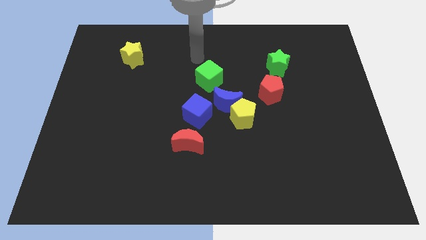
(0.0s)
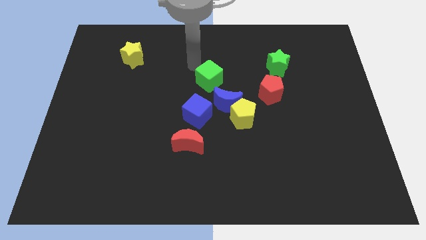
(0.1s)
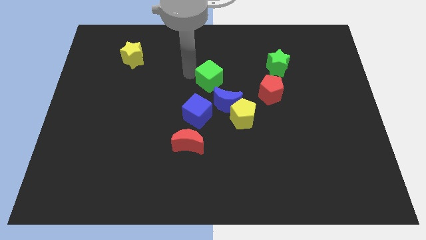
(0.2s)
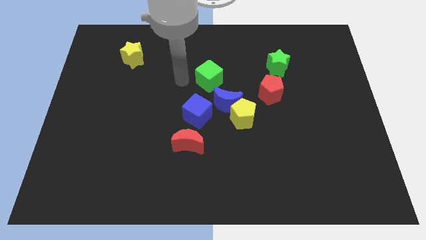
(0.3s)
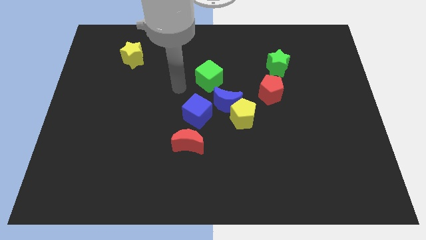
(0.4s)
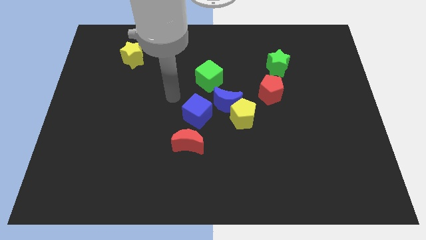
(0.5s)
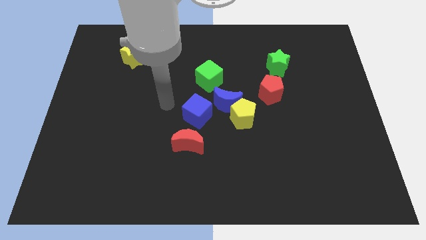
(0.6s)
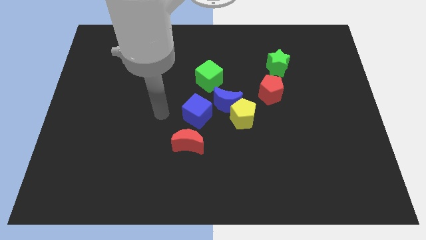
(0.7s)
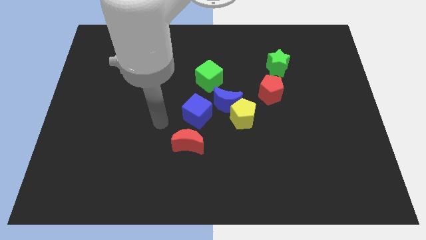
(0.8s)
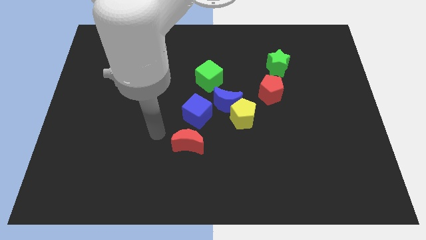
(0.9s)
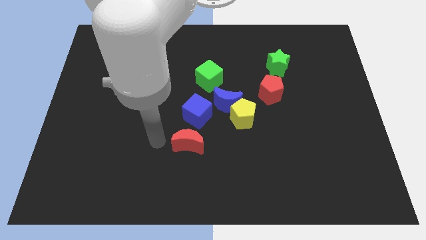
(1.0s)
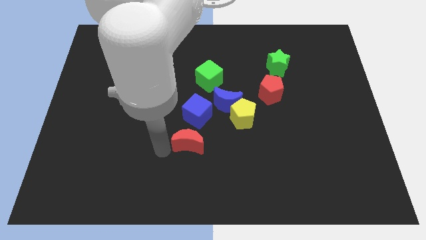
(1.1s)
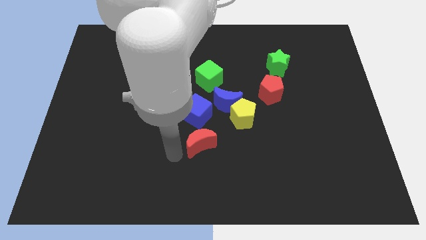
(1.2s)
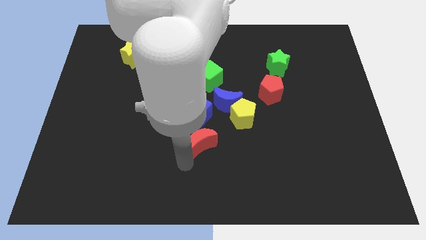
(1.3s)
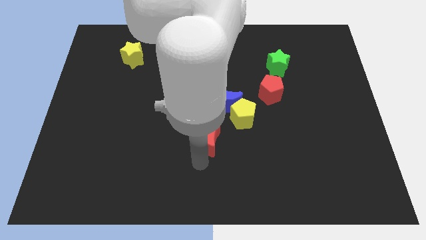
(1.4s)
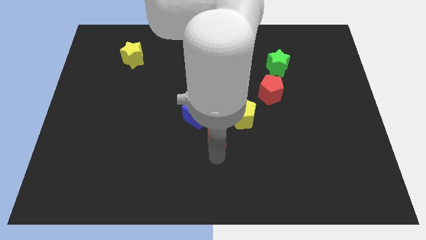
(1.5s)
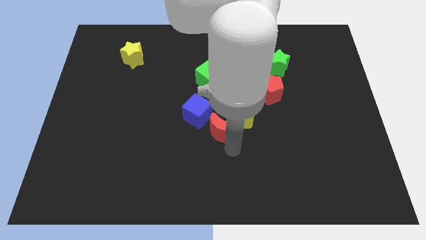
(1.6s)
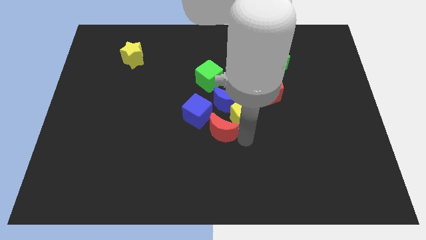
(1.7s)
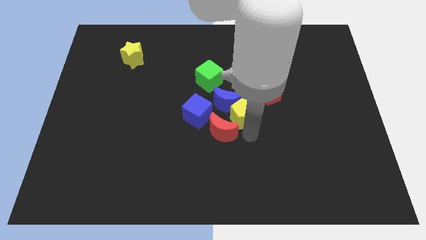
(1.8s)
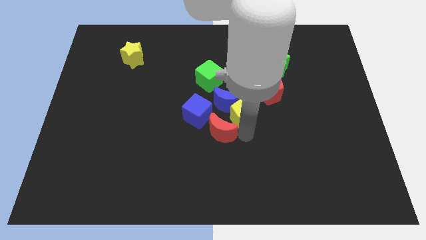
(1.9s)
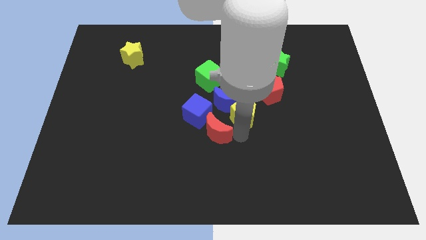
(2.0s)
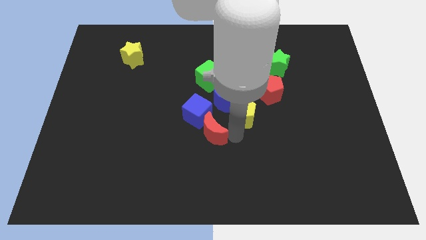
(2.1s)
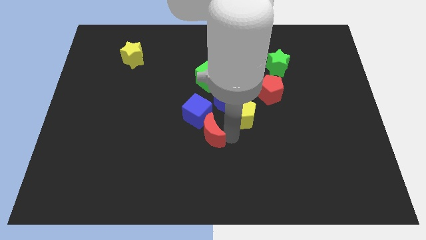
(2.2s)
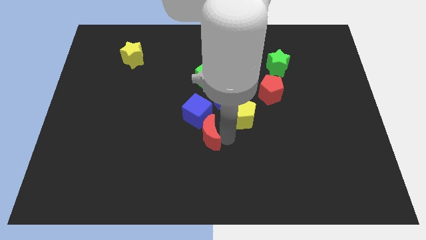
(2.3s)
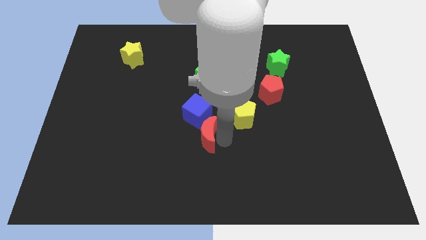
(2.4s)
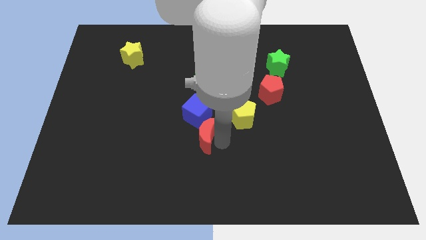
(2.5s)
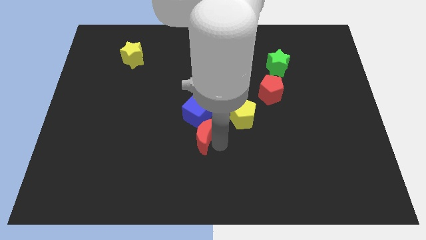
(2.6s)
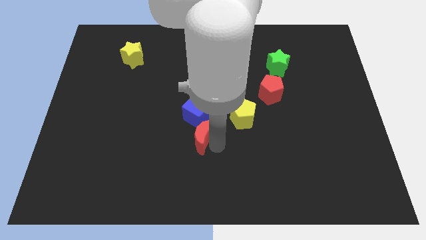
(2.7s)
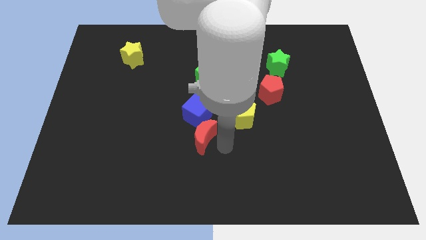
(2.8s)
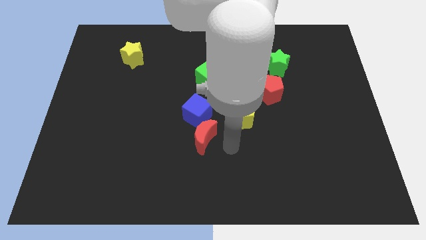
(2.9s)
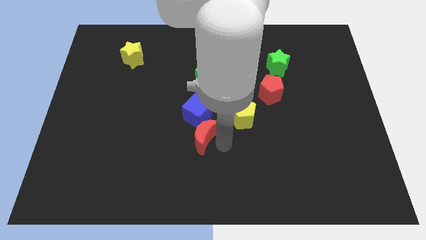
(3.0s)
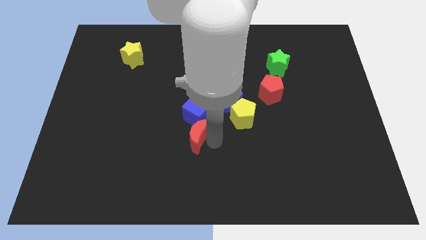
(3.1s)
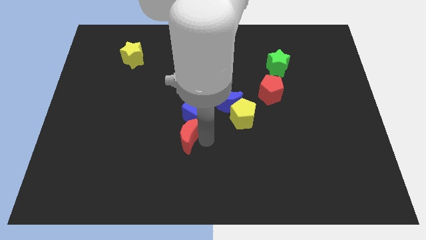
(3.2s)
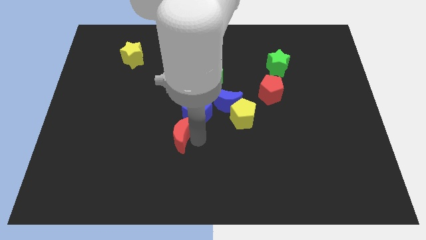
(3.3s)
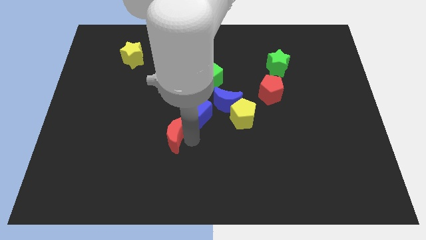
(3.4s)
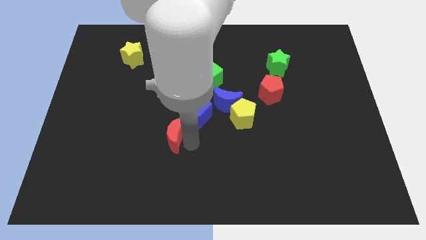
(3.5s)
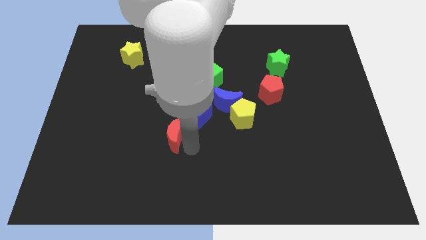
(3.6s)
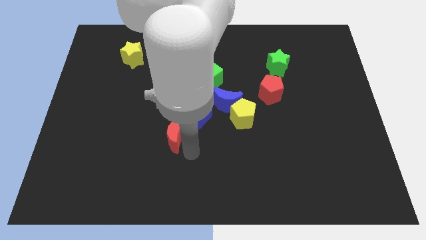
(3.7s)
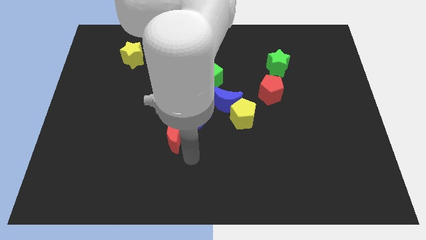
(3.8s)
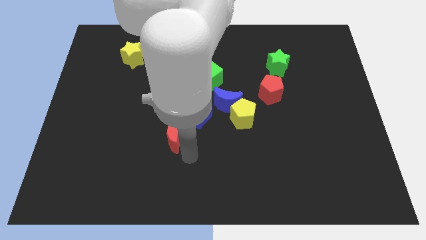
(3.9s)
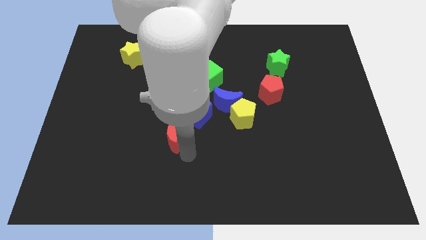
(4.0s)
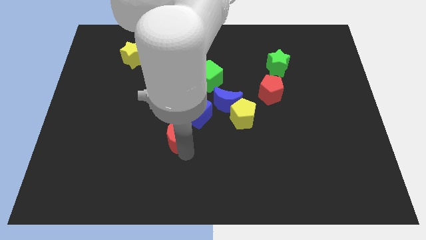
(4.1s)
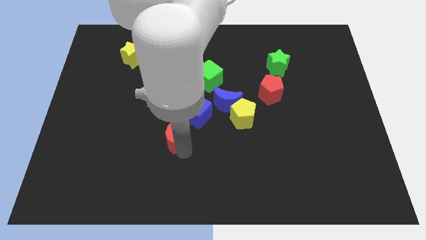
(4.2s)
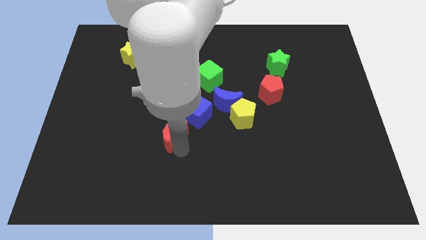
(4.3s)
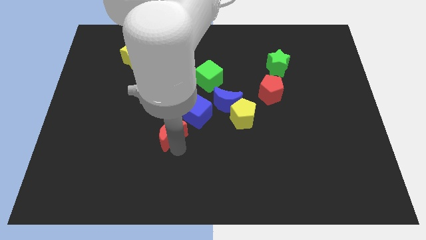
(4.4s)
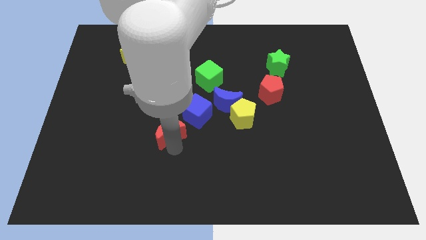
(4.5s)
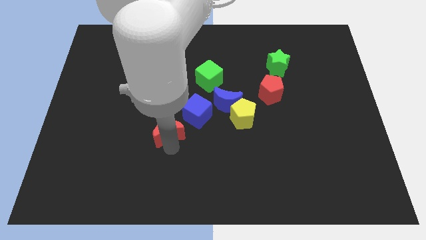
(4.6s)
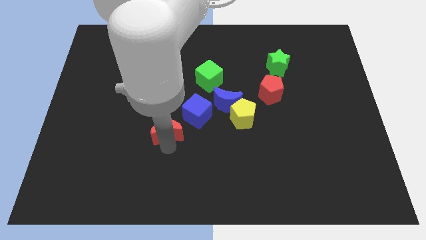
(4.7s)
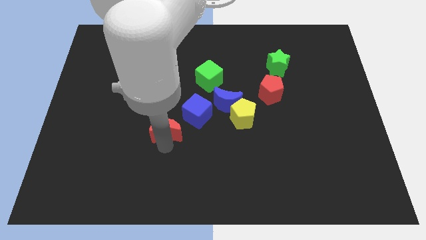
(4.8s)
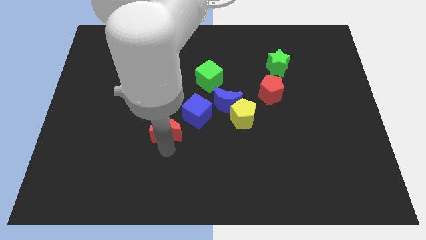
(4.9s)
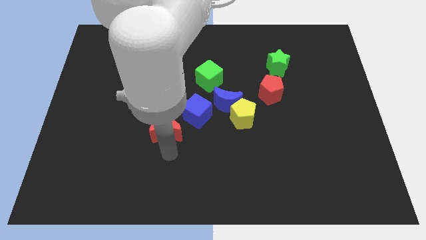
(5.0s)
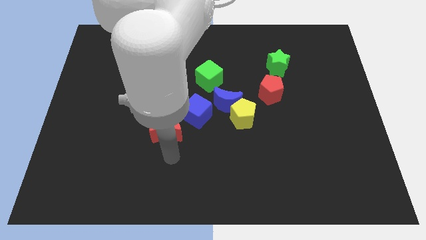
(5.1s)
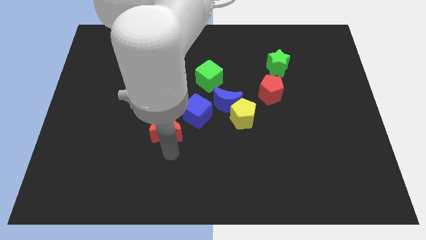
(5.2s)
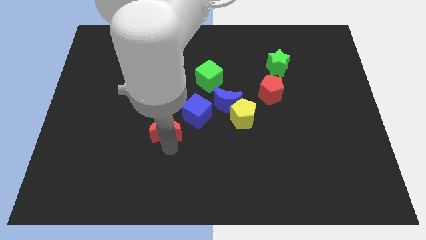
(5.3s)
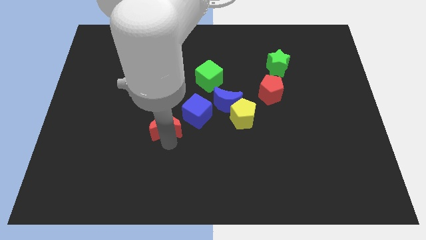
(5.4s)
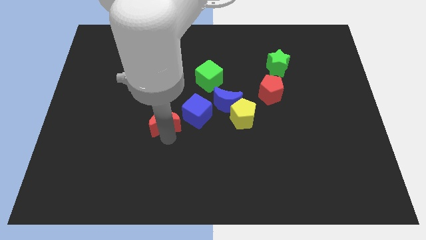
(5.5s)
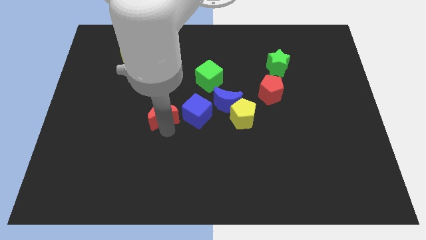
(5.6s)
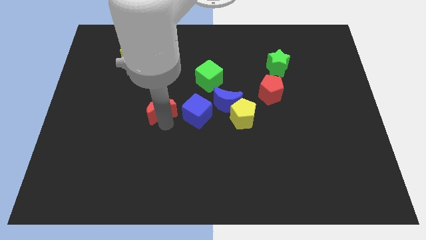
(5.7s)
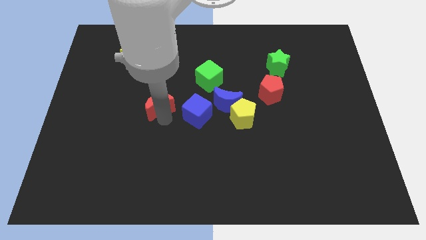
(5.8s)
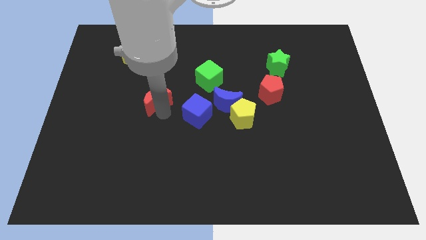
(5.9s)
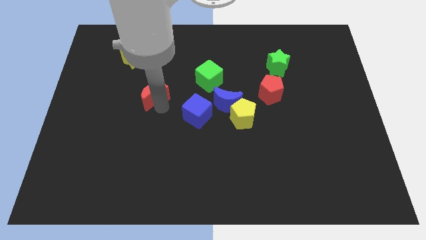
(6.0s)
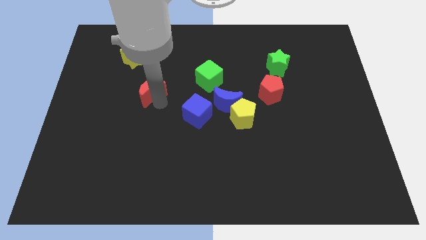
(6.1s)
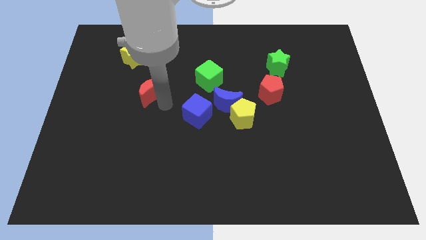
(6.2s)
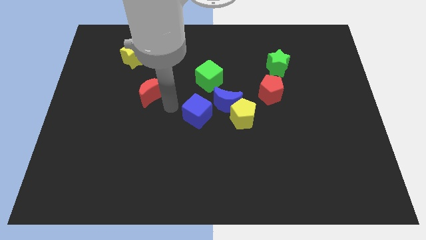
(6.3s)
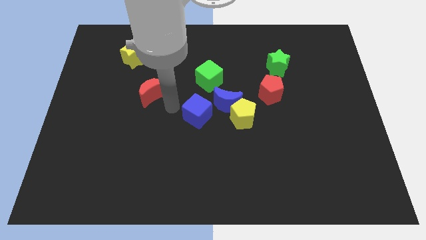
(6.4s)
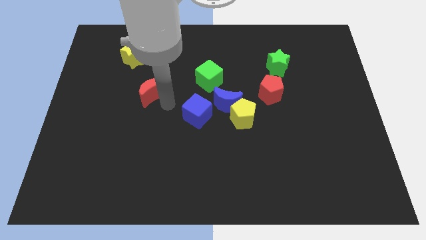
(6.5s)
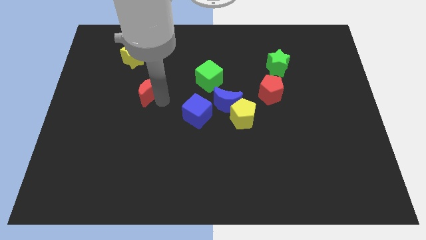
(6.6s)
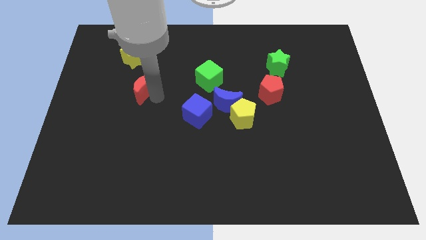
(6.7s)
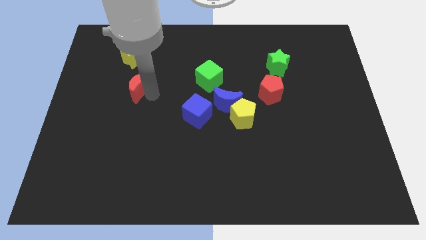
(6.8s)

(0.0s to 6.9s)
move the red moon upwards and to the left diagonally

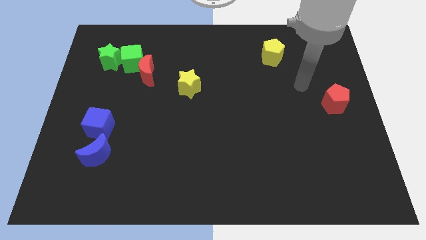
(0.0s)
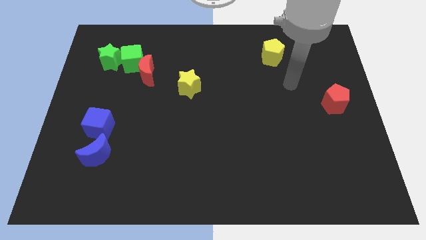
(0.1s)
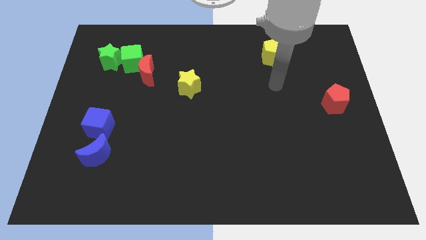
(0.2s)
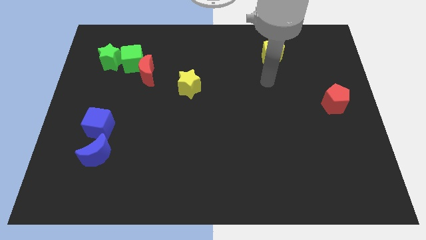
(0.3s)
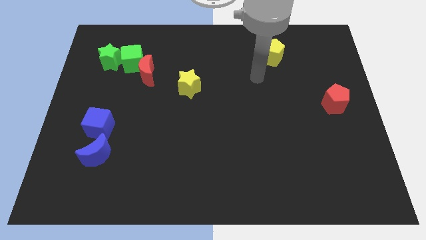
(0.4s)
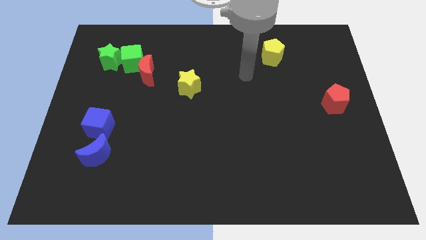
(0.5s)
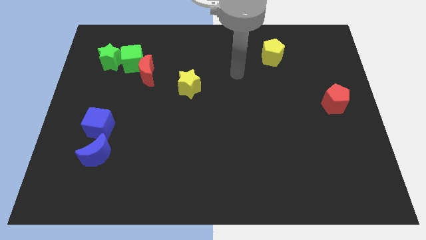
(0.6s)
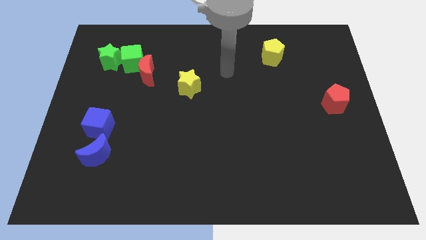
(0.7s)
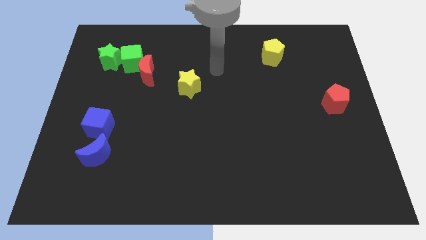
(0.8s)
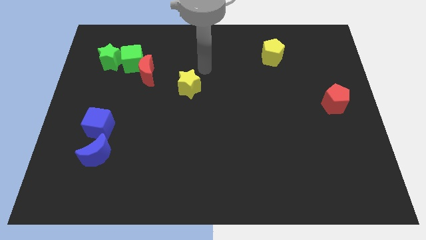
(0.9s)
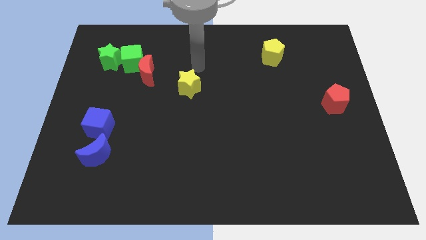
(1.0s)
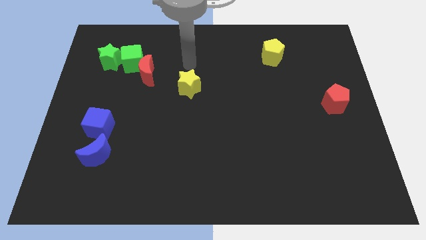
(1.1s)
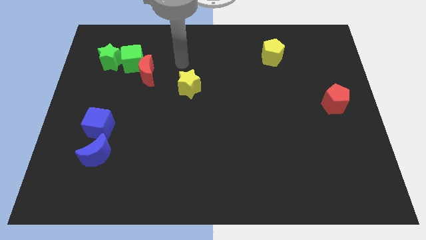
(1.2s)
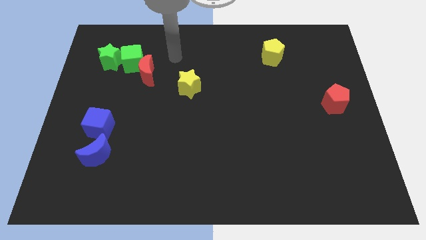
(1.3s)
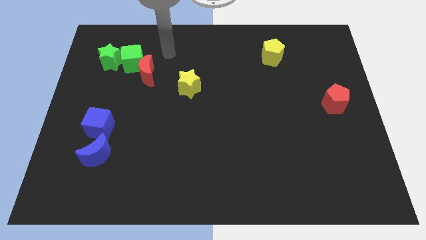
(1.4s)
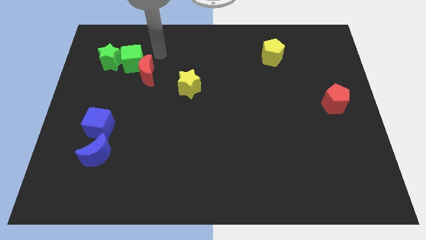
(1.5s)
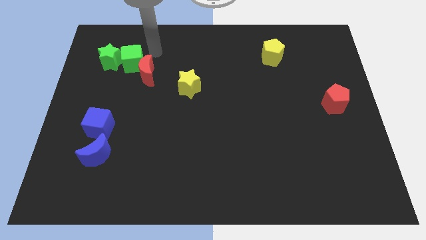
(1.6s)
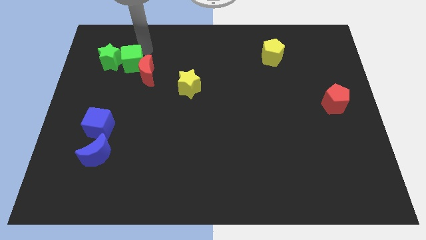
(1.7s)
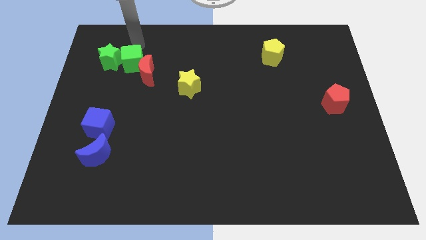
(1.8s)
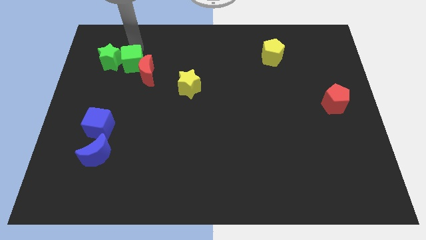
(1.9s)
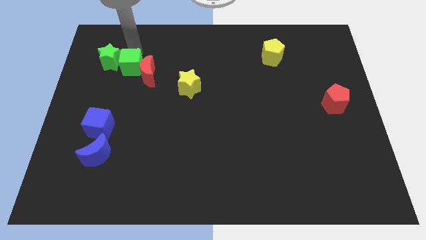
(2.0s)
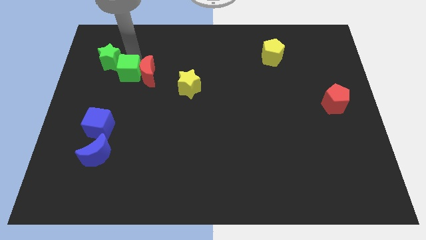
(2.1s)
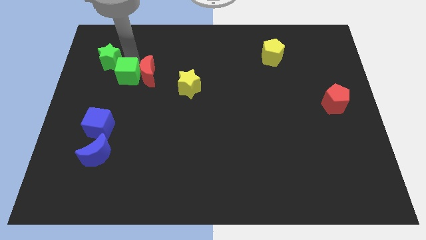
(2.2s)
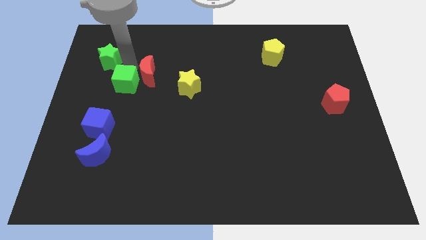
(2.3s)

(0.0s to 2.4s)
slide the green cube a little down
